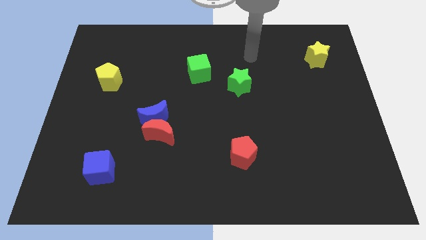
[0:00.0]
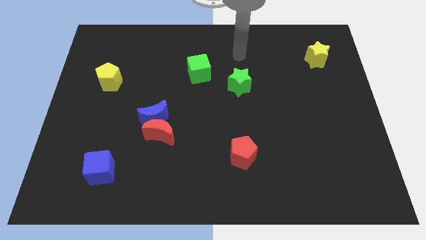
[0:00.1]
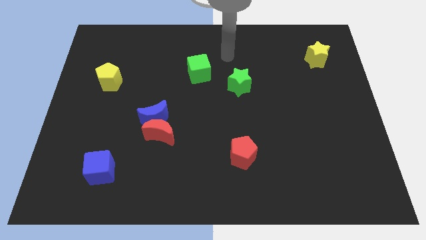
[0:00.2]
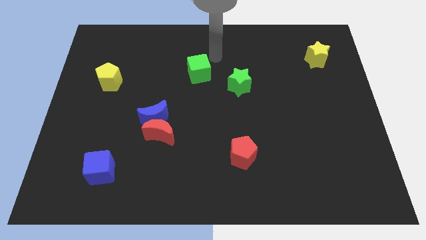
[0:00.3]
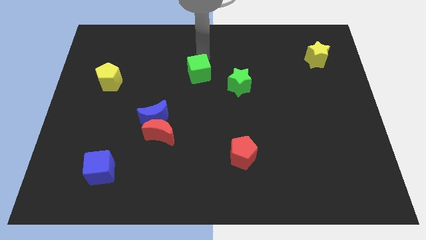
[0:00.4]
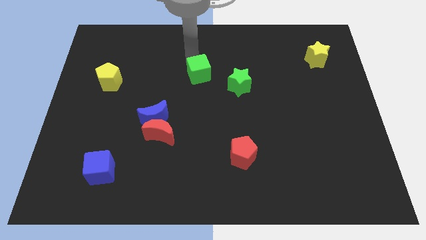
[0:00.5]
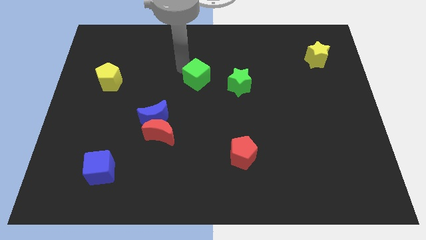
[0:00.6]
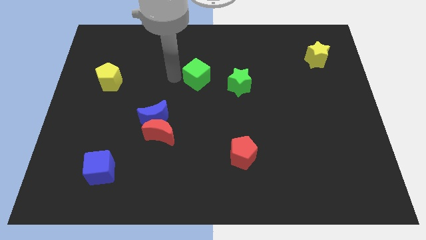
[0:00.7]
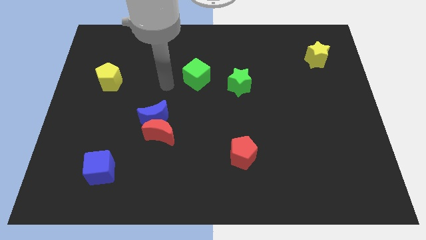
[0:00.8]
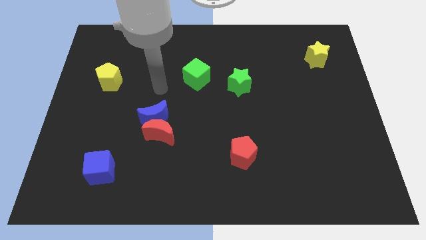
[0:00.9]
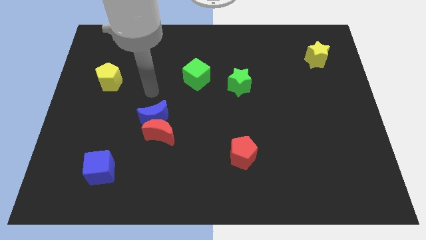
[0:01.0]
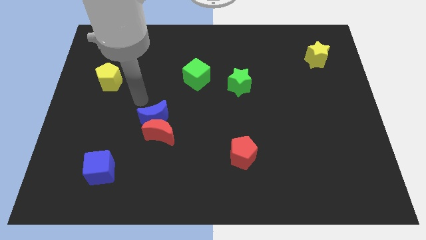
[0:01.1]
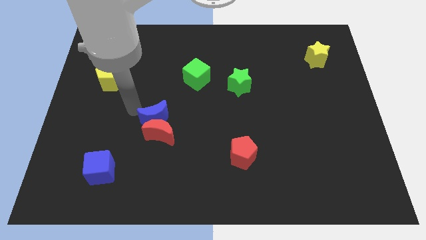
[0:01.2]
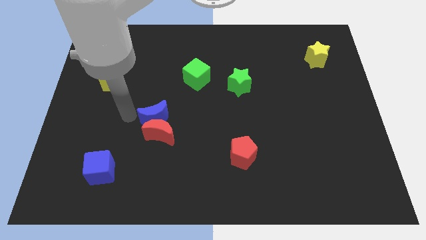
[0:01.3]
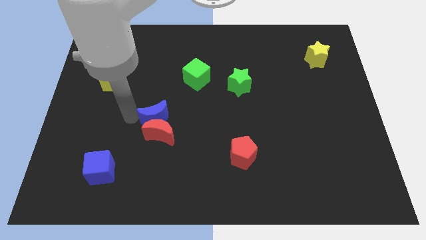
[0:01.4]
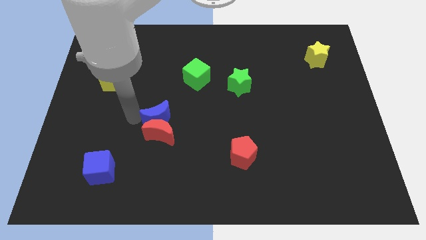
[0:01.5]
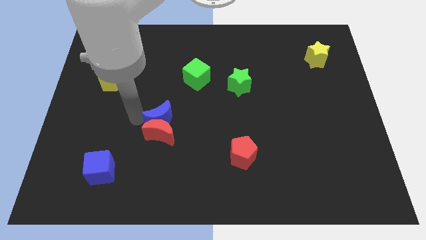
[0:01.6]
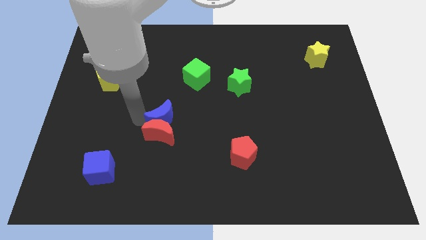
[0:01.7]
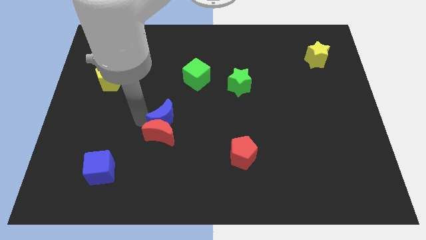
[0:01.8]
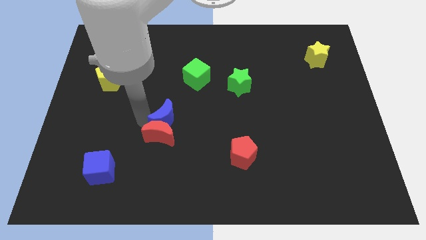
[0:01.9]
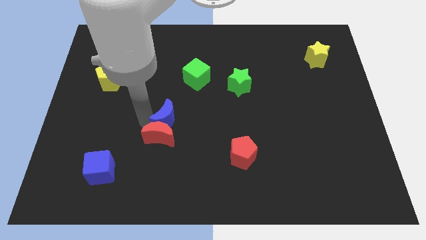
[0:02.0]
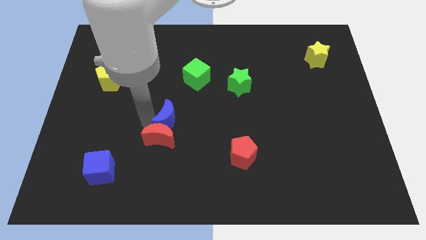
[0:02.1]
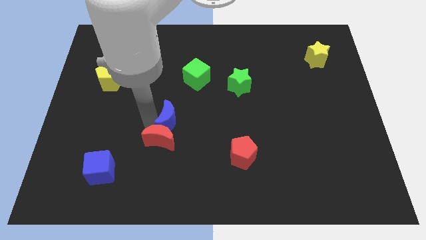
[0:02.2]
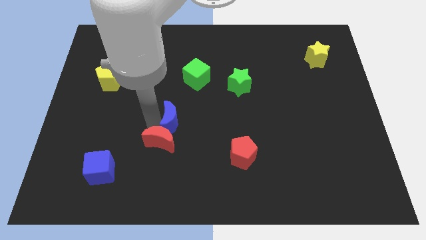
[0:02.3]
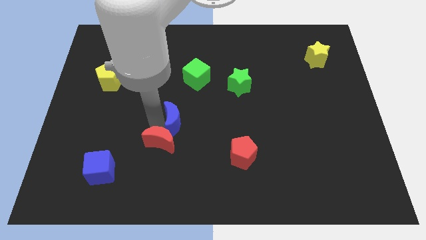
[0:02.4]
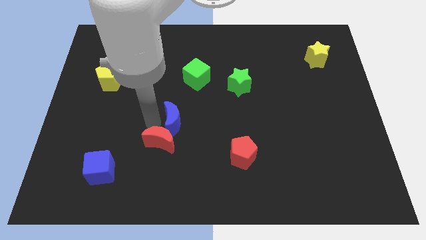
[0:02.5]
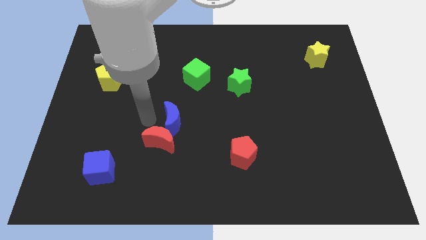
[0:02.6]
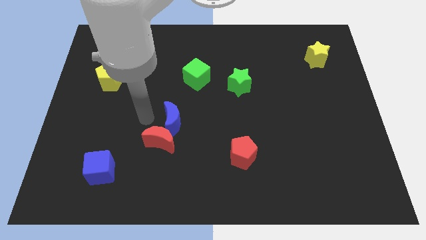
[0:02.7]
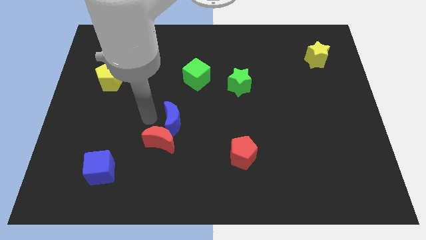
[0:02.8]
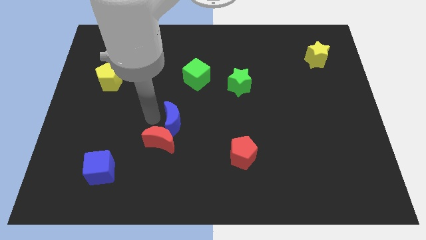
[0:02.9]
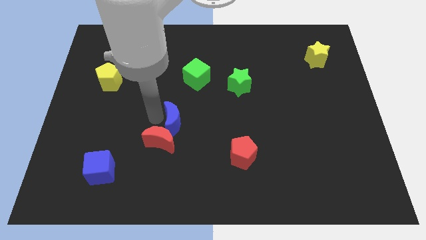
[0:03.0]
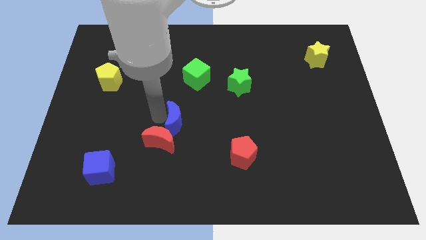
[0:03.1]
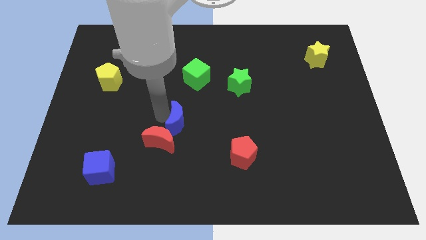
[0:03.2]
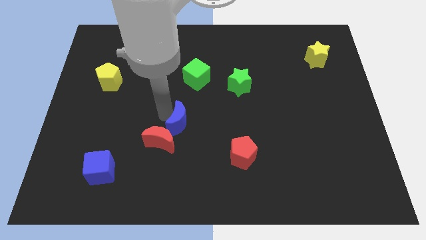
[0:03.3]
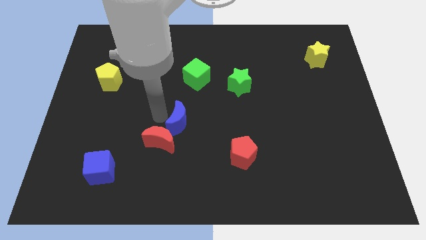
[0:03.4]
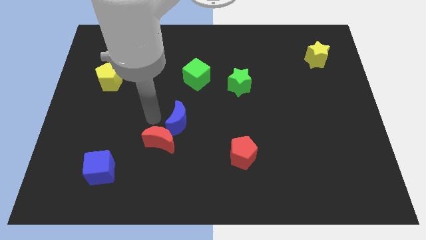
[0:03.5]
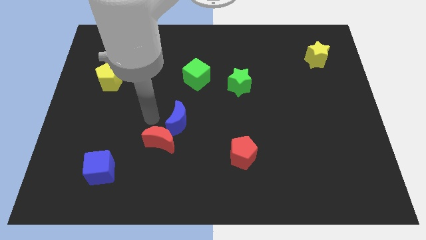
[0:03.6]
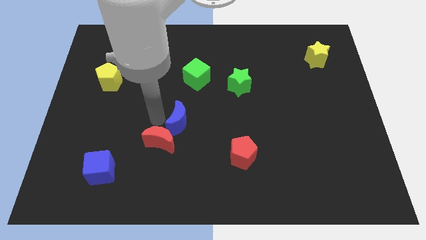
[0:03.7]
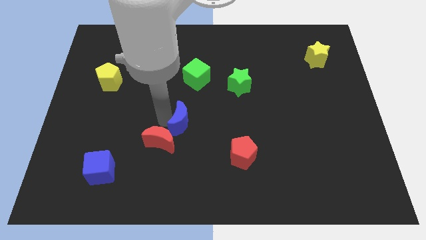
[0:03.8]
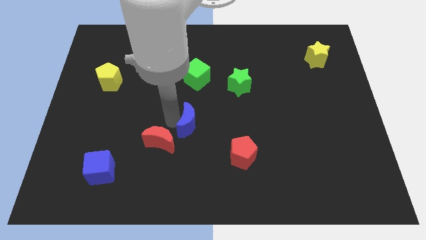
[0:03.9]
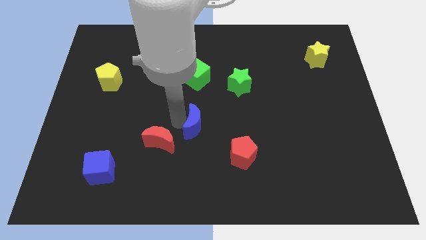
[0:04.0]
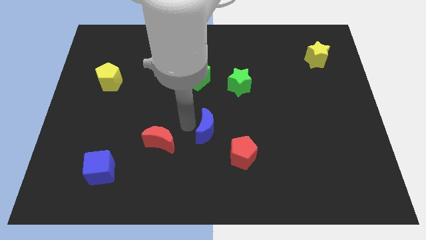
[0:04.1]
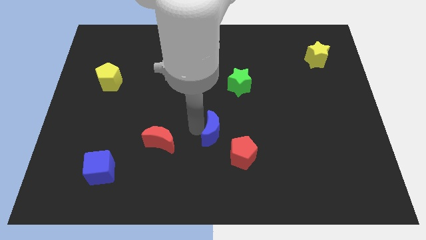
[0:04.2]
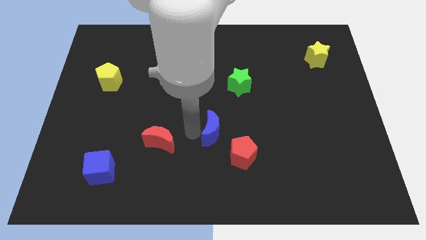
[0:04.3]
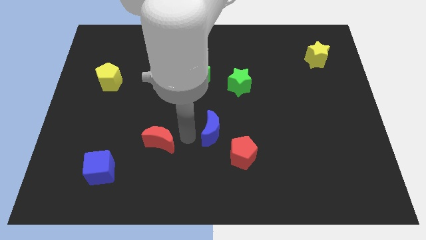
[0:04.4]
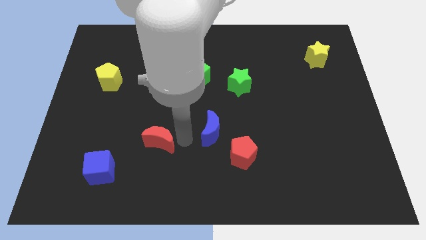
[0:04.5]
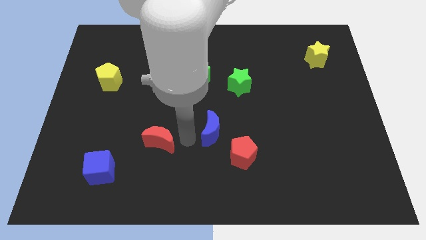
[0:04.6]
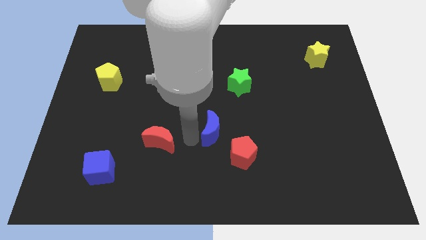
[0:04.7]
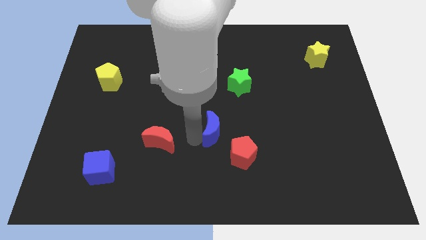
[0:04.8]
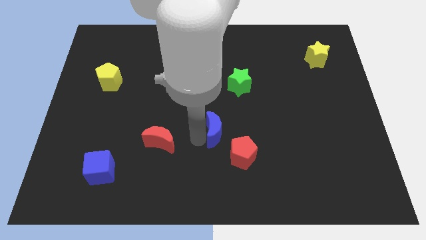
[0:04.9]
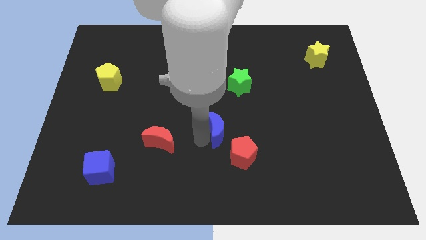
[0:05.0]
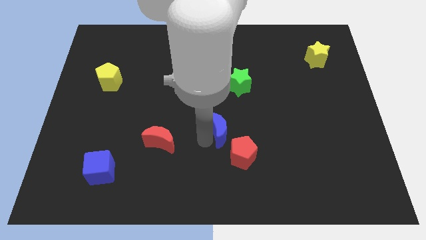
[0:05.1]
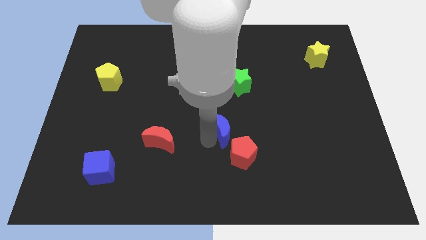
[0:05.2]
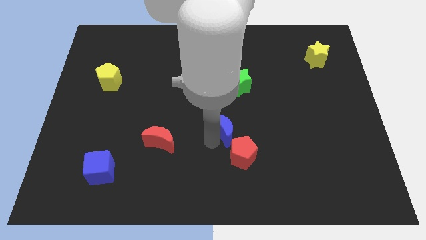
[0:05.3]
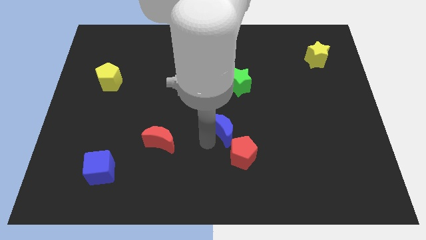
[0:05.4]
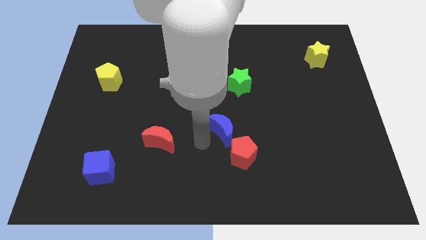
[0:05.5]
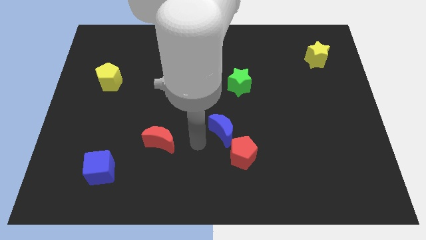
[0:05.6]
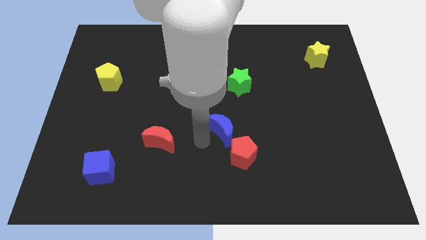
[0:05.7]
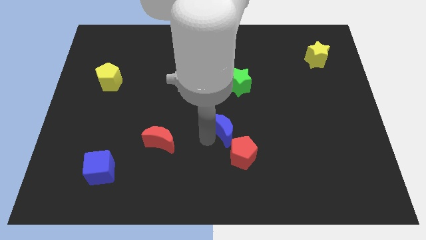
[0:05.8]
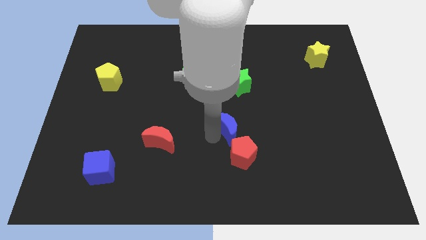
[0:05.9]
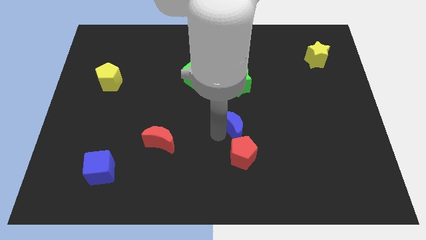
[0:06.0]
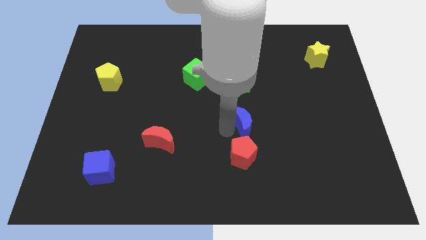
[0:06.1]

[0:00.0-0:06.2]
move the blue moon right

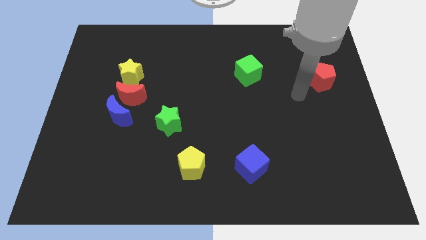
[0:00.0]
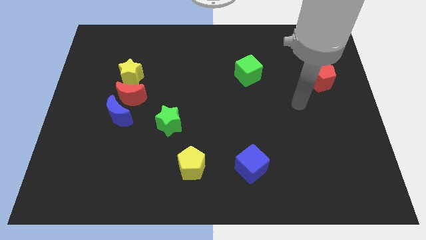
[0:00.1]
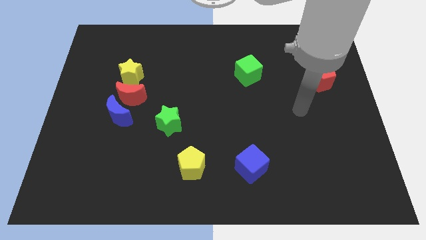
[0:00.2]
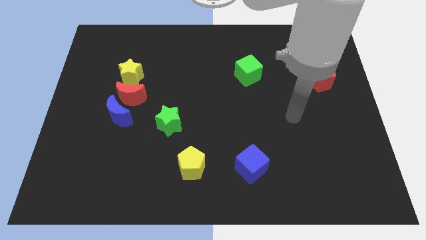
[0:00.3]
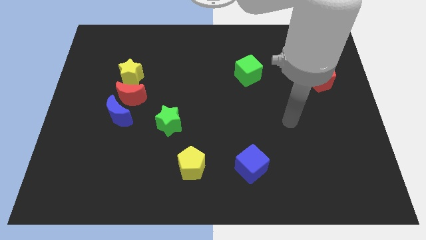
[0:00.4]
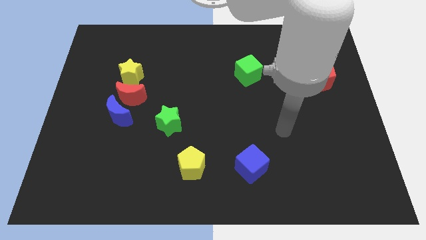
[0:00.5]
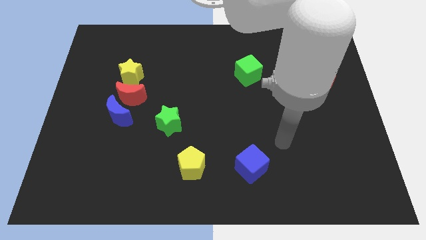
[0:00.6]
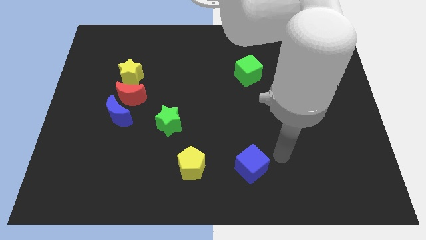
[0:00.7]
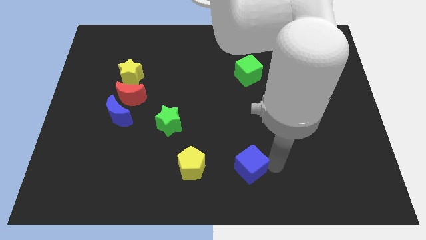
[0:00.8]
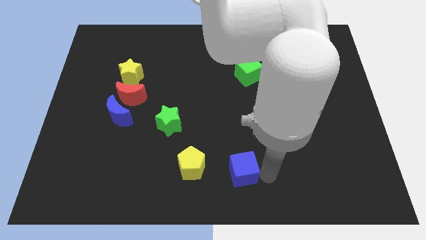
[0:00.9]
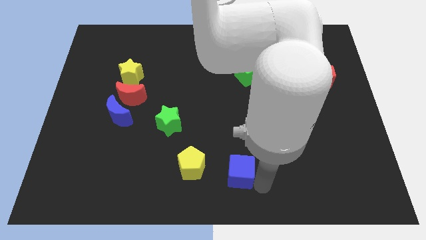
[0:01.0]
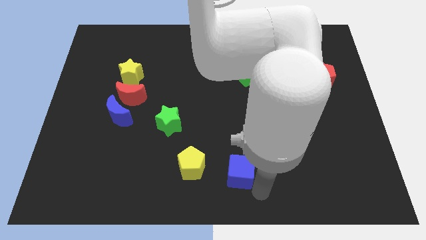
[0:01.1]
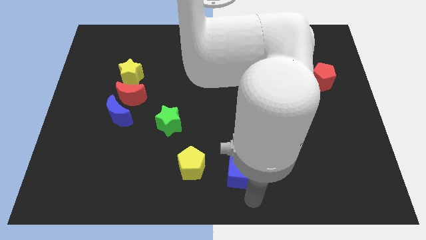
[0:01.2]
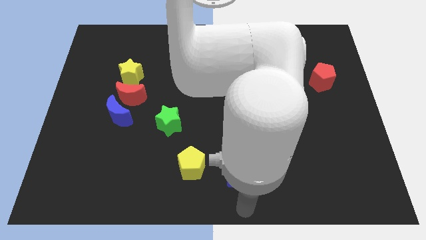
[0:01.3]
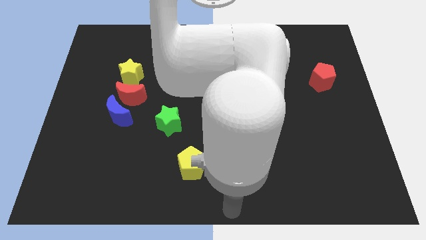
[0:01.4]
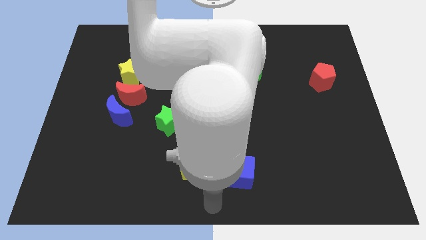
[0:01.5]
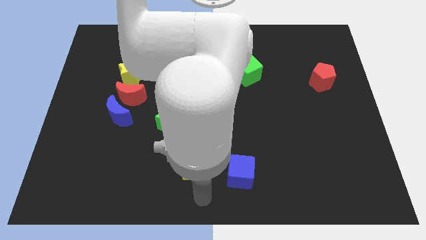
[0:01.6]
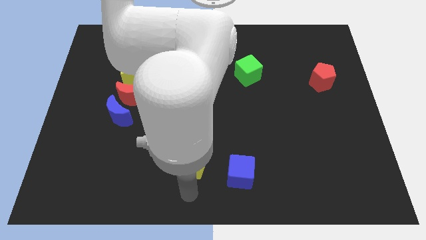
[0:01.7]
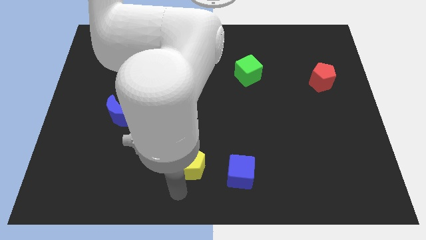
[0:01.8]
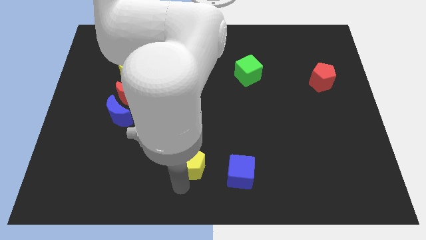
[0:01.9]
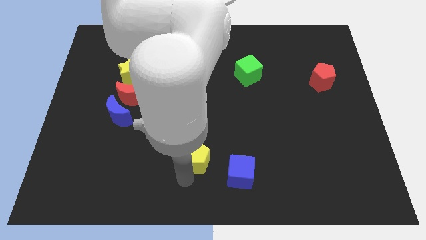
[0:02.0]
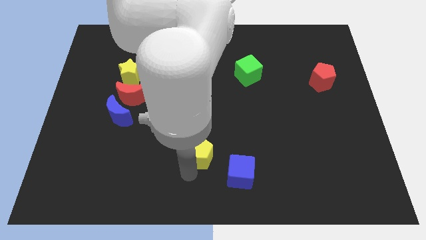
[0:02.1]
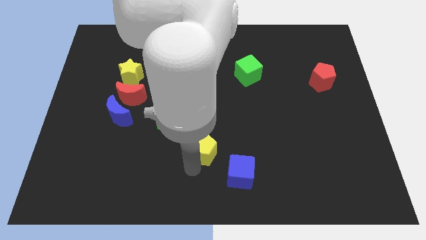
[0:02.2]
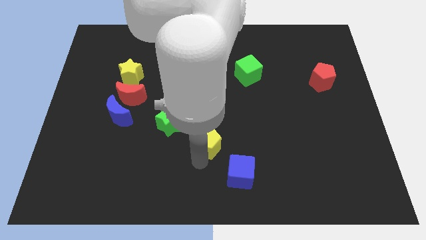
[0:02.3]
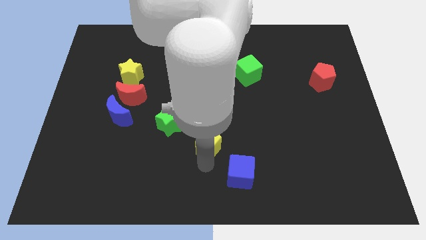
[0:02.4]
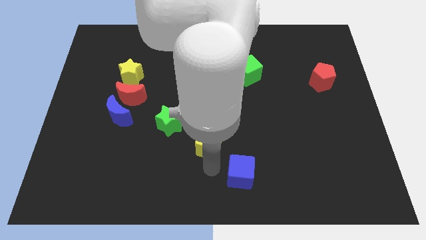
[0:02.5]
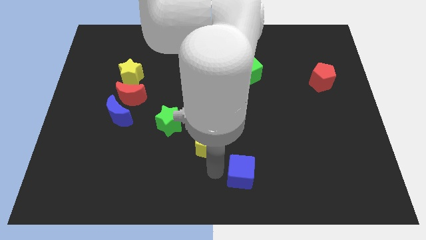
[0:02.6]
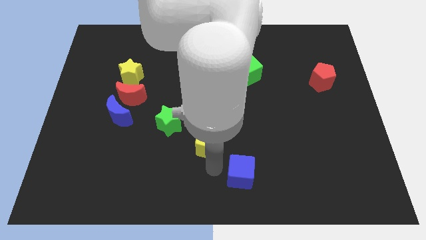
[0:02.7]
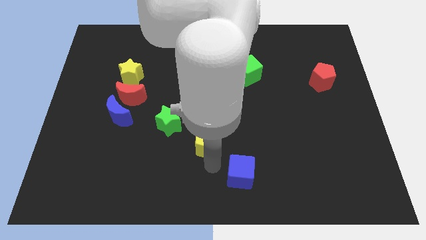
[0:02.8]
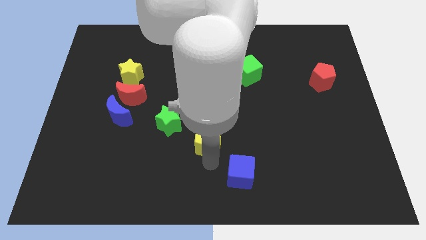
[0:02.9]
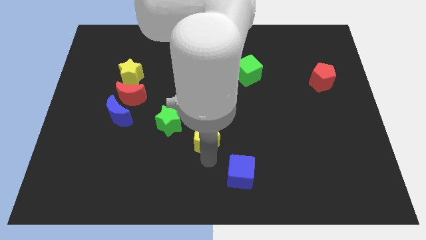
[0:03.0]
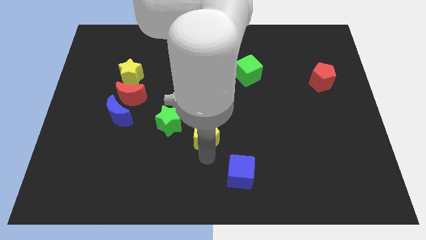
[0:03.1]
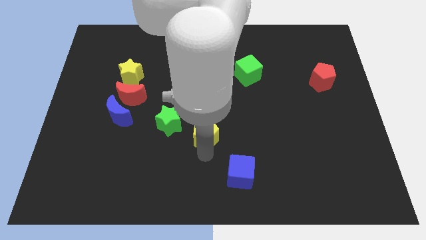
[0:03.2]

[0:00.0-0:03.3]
move the yellow pentagon upwards a bit
